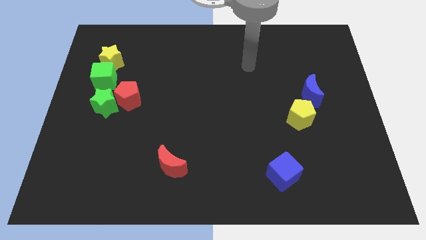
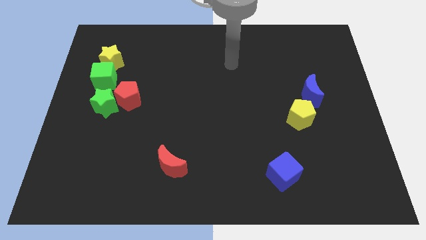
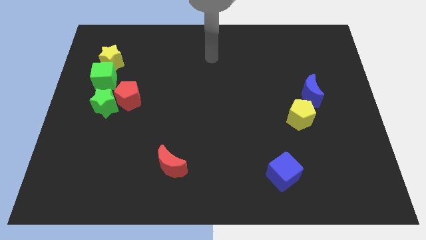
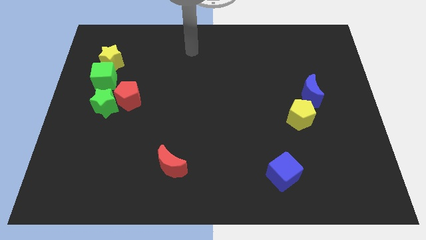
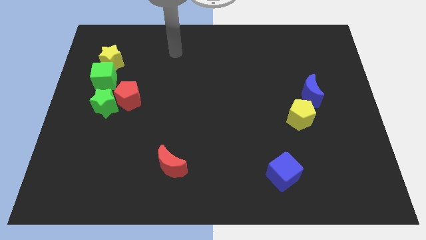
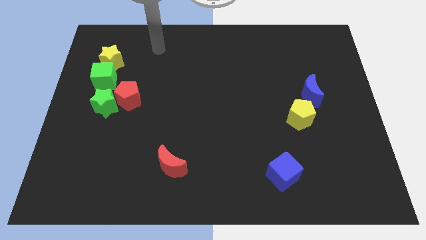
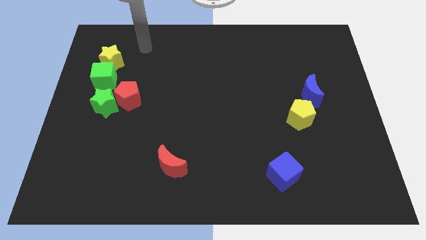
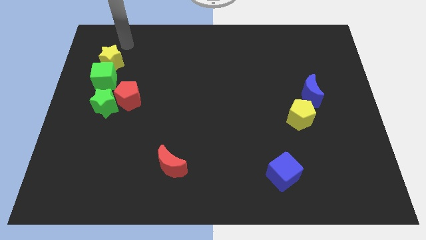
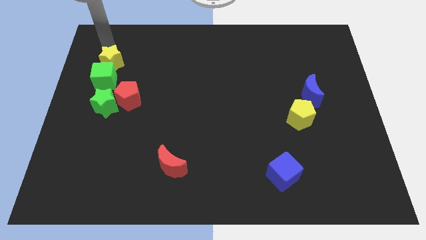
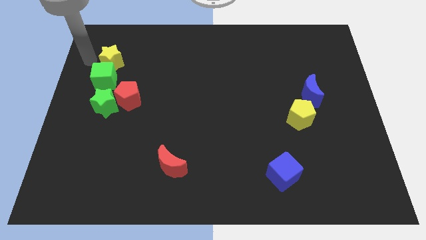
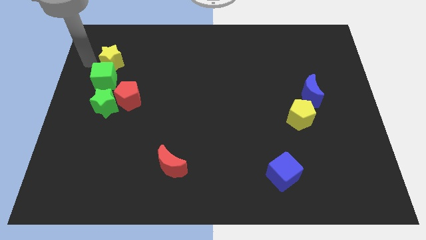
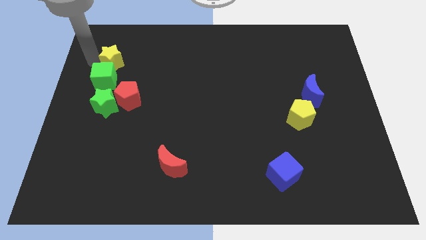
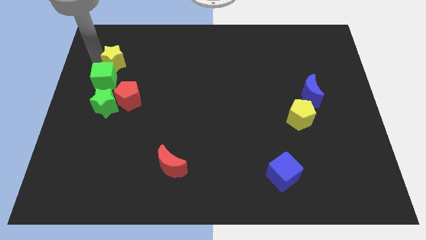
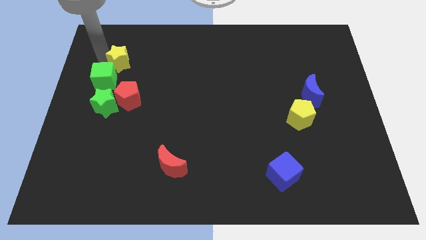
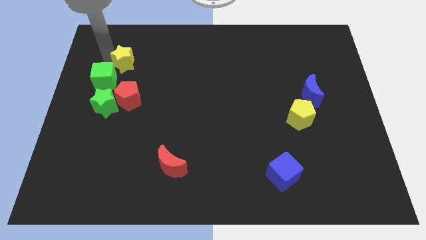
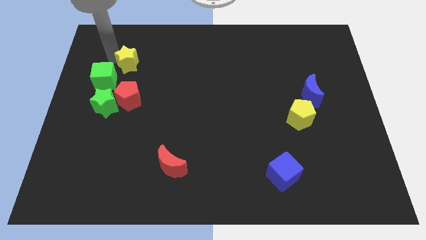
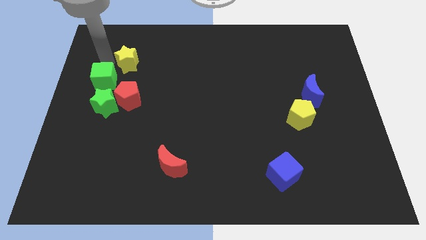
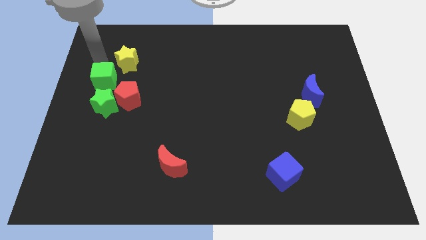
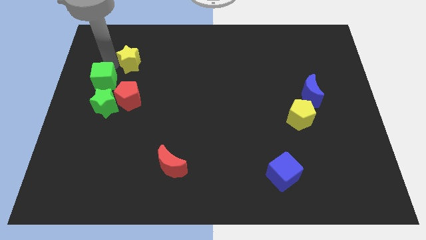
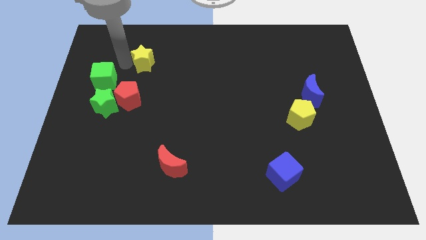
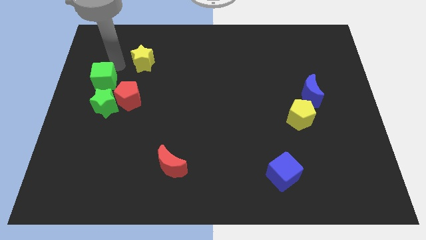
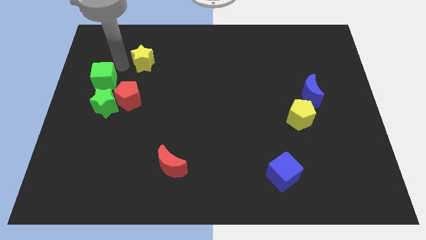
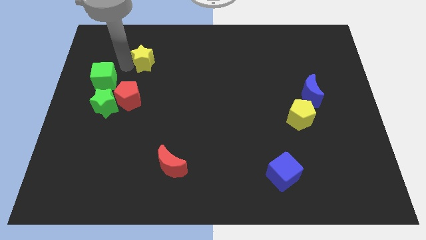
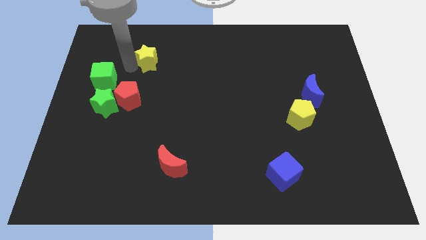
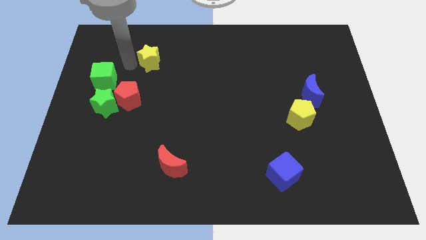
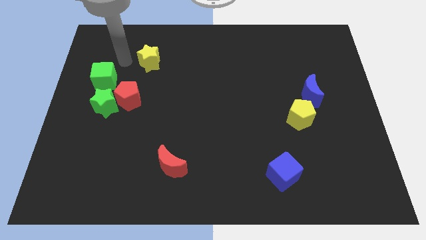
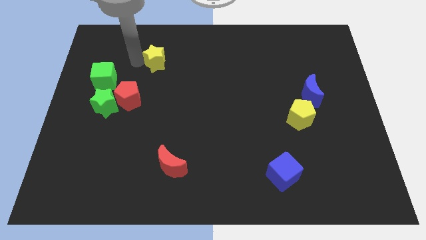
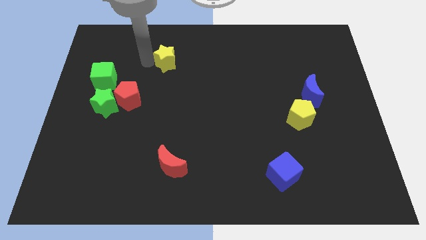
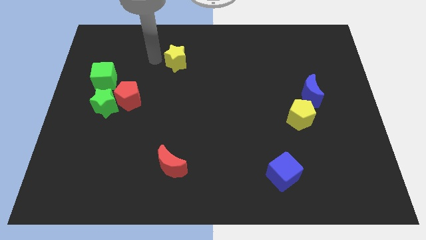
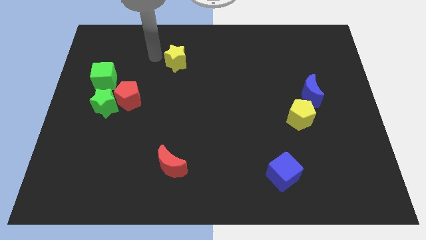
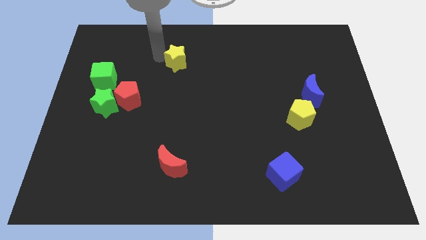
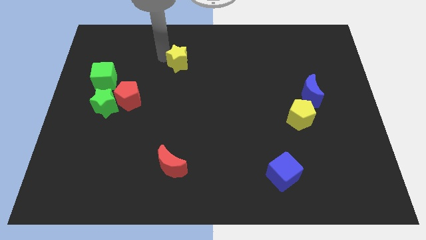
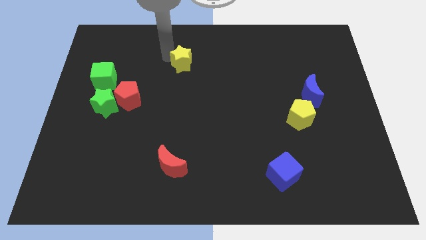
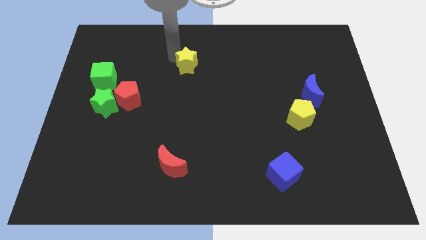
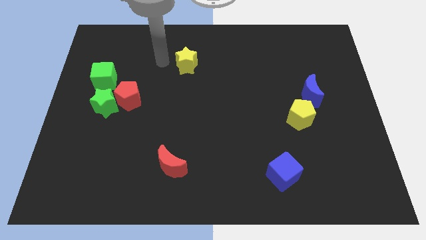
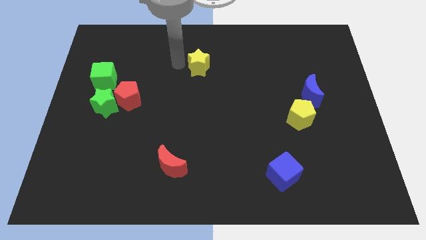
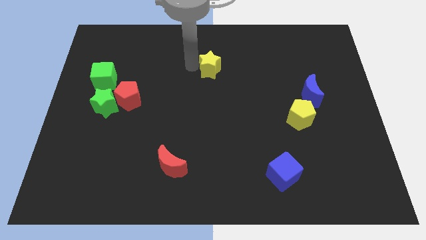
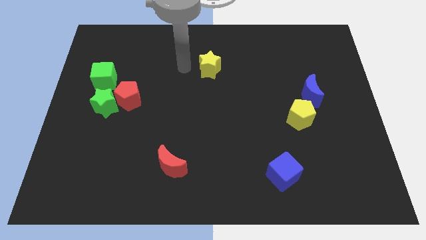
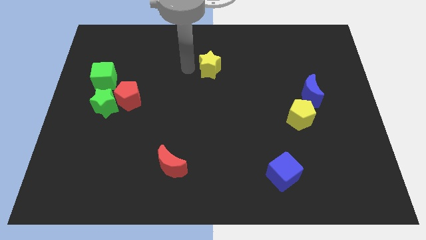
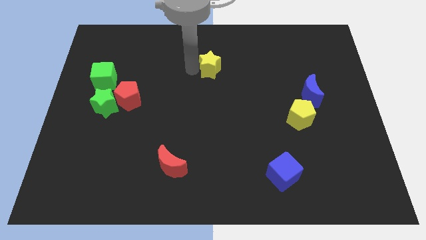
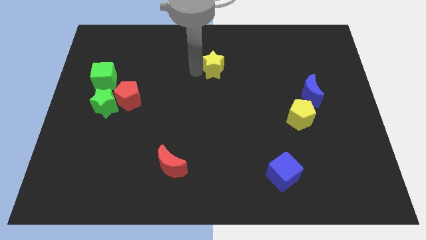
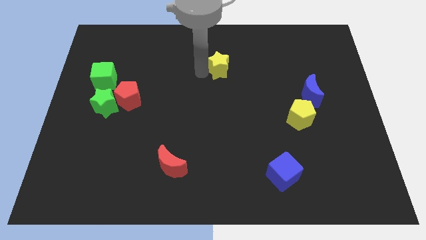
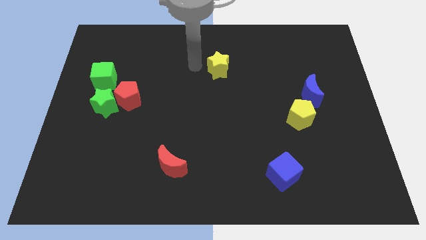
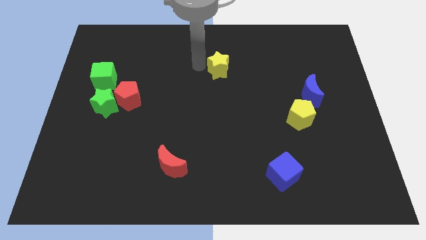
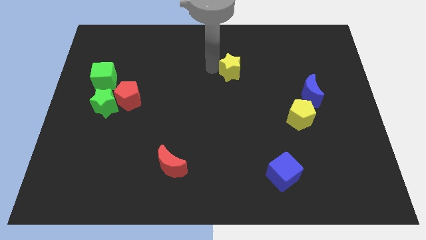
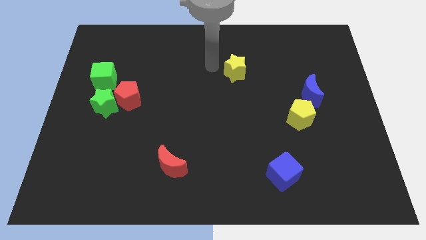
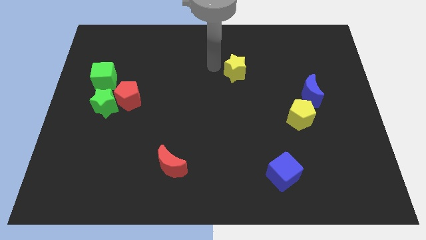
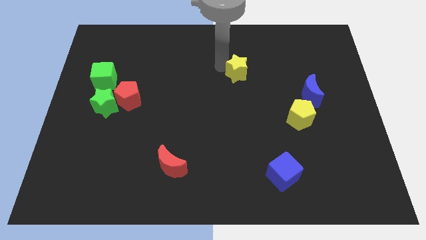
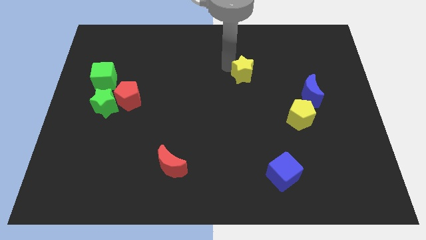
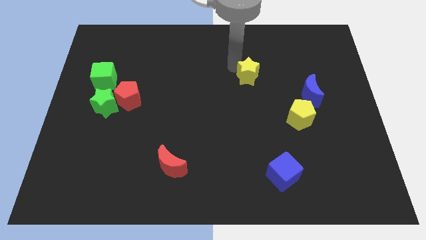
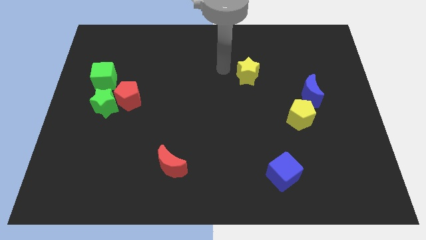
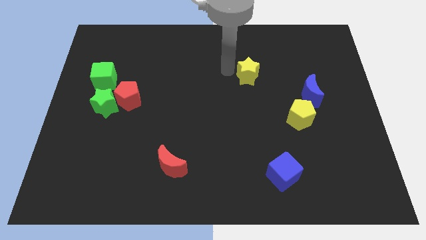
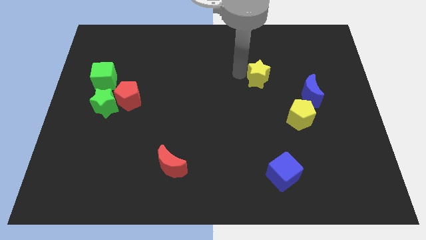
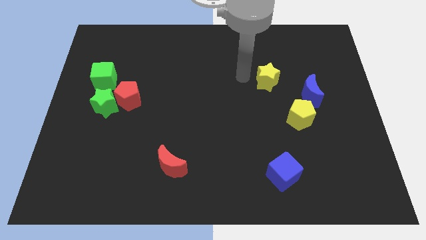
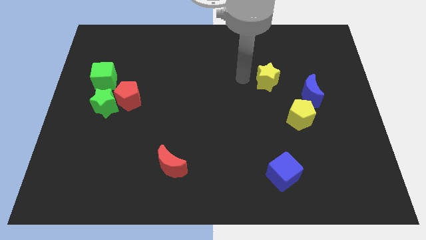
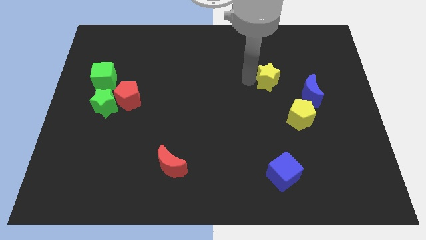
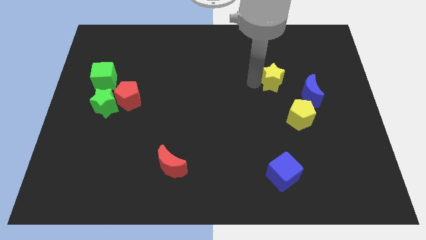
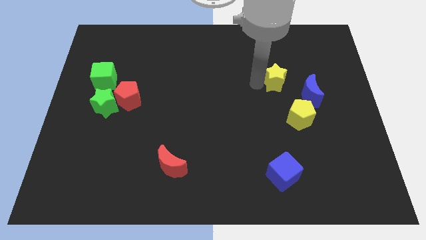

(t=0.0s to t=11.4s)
put the yellow star to the top side of the yellow pentagon

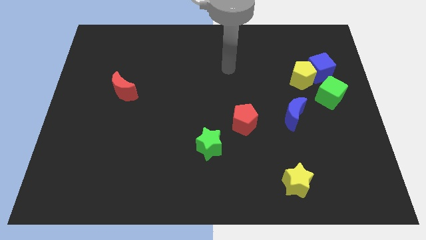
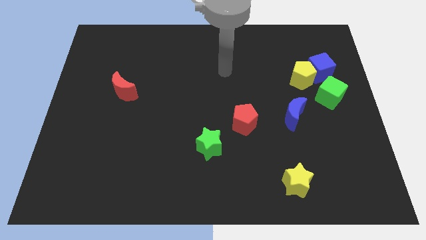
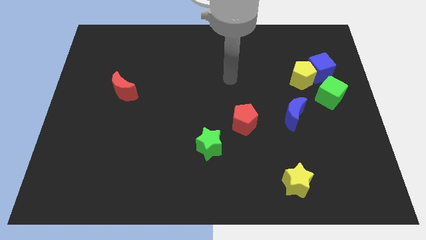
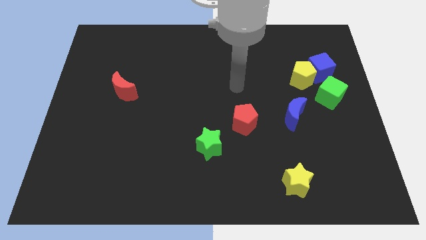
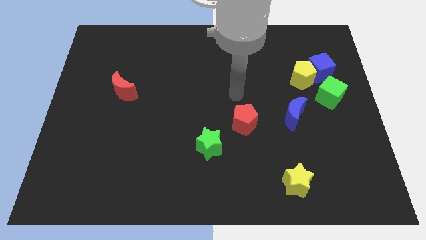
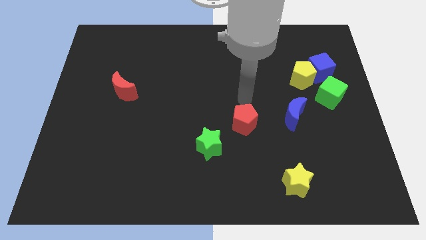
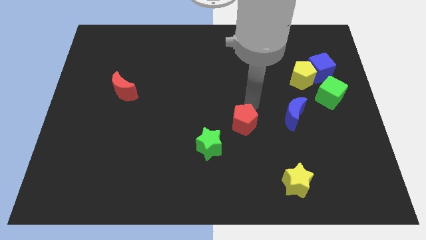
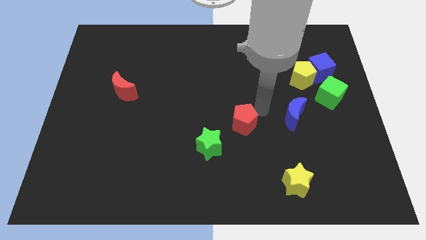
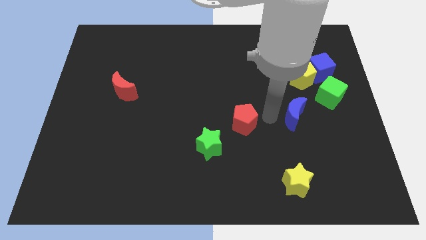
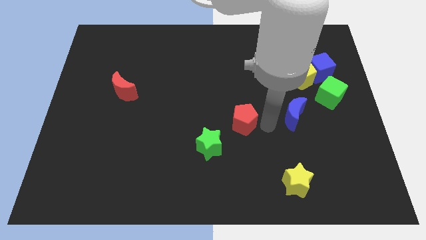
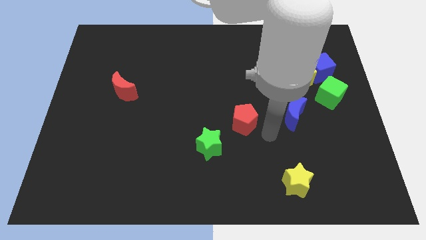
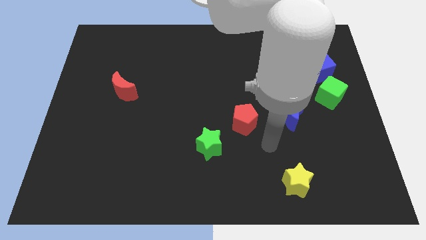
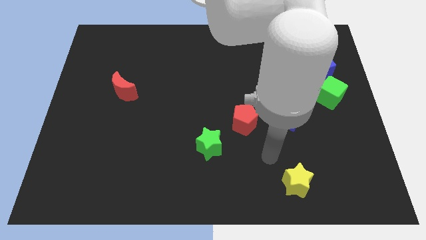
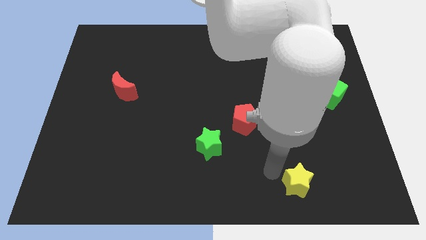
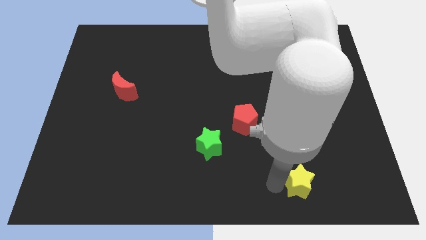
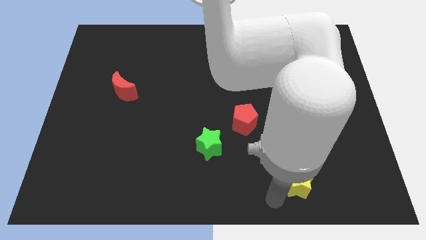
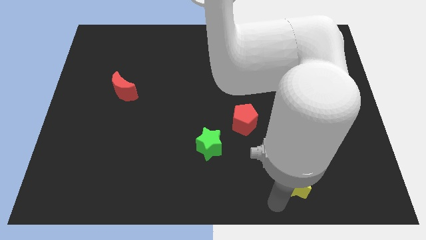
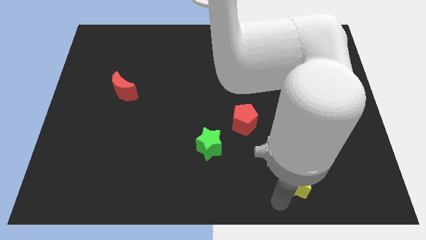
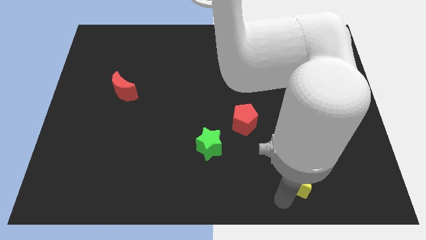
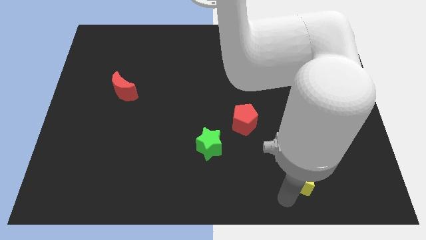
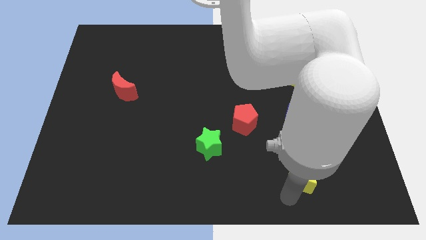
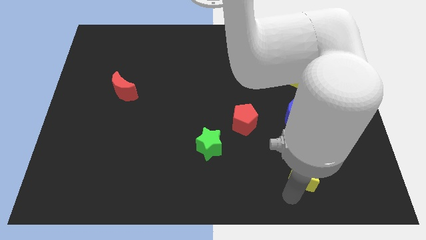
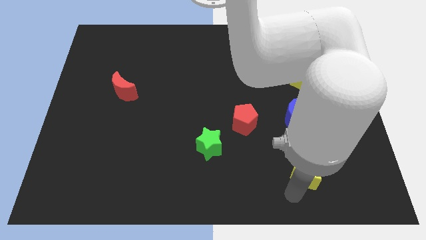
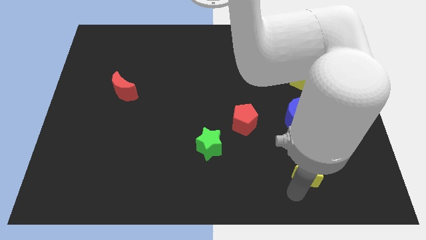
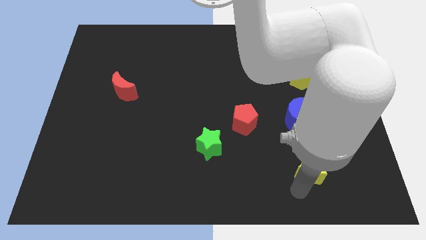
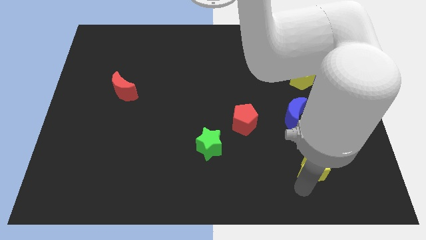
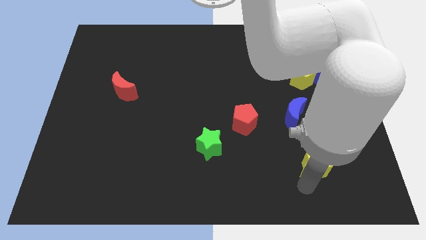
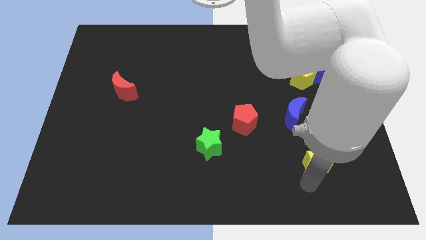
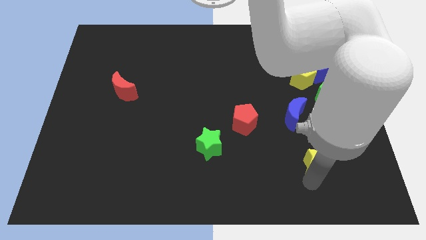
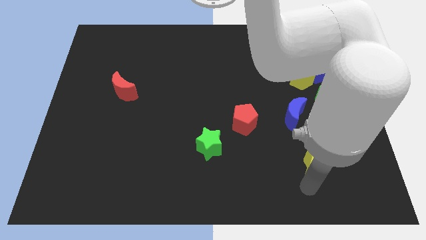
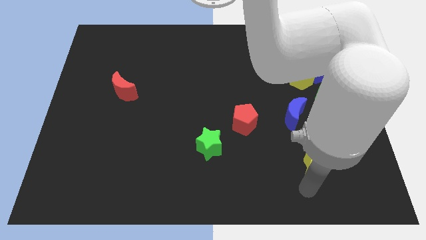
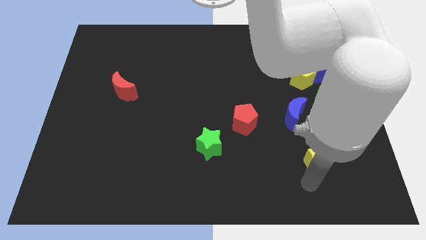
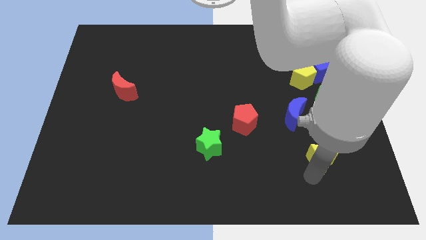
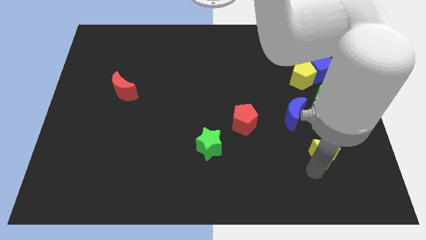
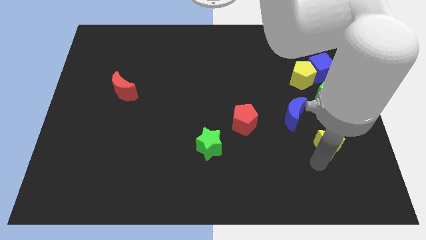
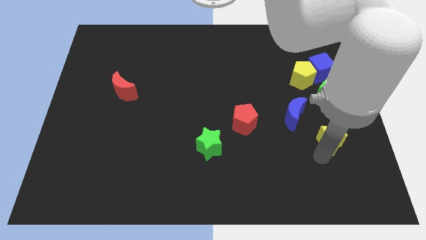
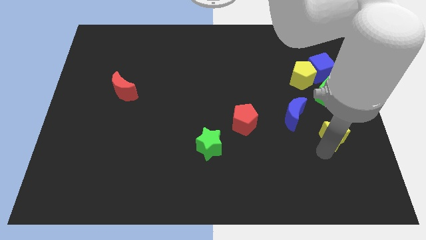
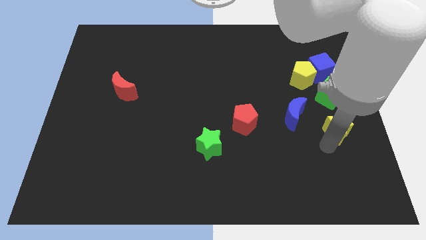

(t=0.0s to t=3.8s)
move the yellow star to the right of the blue moon
